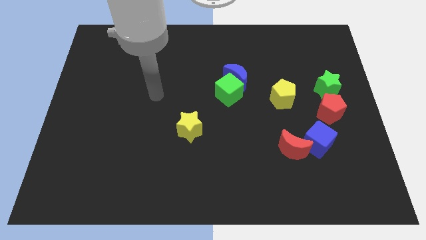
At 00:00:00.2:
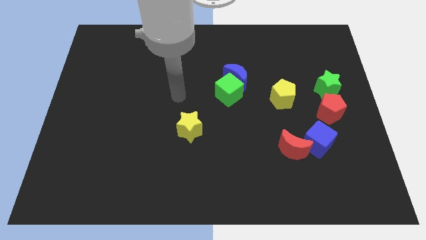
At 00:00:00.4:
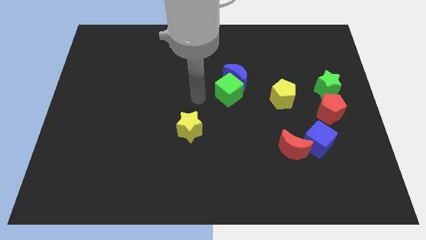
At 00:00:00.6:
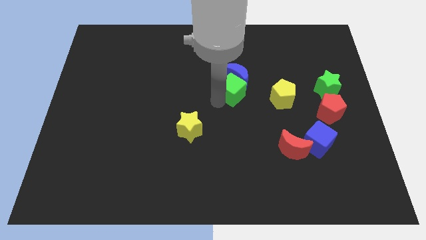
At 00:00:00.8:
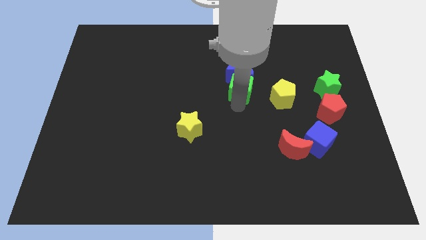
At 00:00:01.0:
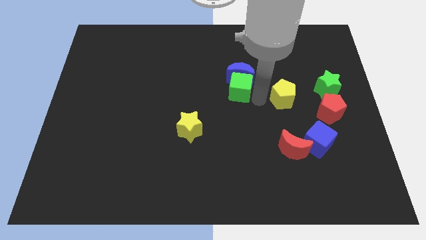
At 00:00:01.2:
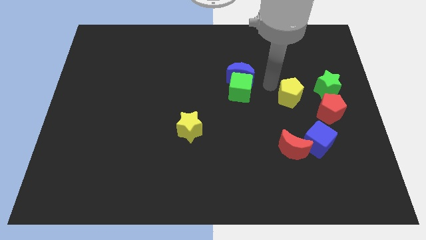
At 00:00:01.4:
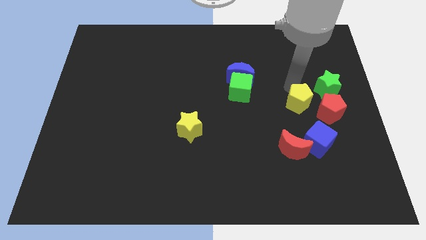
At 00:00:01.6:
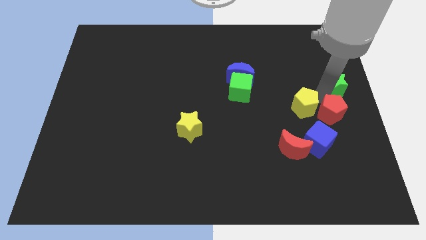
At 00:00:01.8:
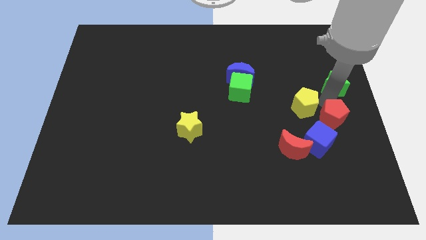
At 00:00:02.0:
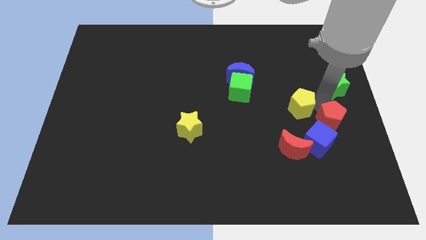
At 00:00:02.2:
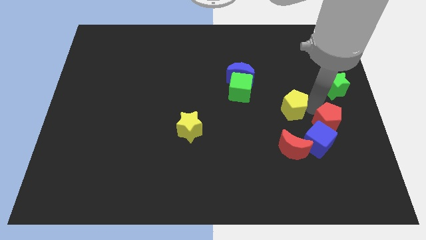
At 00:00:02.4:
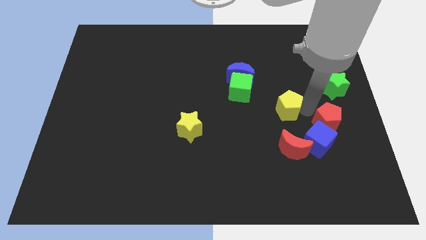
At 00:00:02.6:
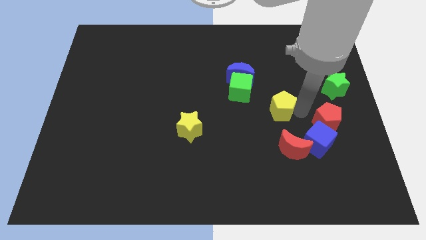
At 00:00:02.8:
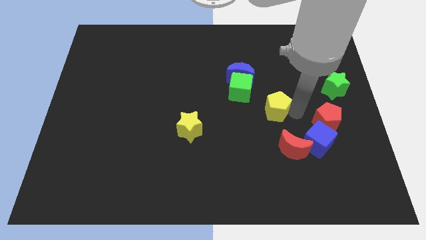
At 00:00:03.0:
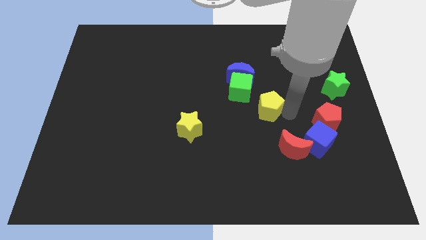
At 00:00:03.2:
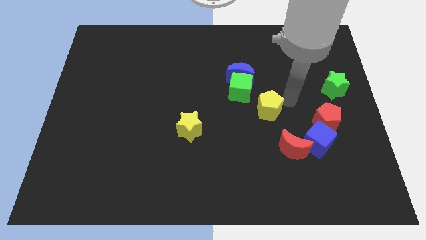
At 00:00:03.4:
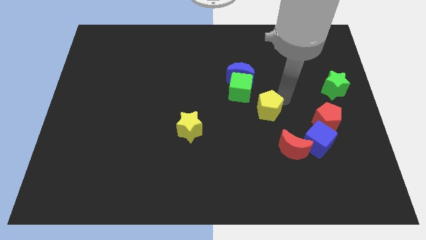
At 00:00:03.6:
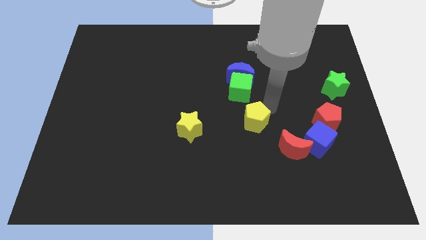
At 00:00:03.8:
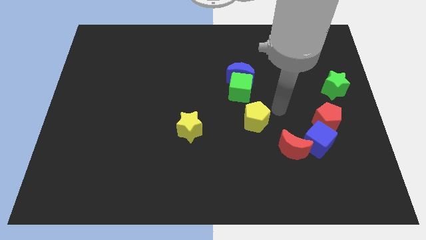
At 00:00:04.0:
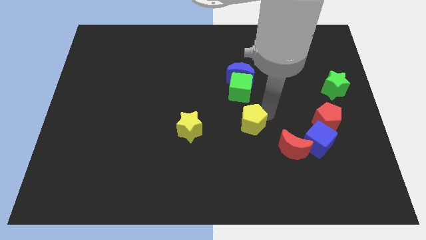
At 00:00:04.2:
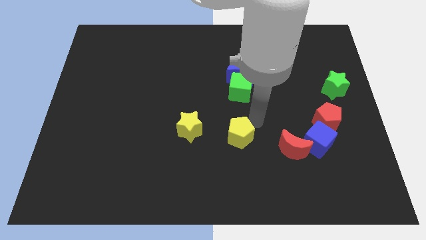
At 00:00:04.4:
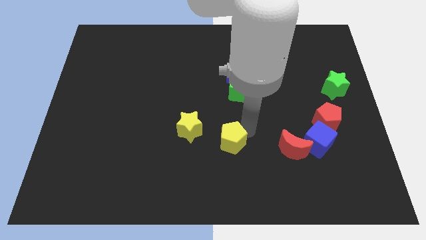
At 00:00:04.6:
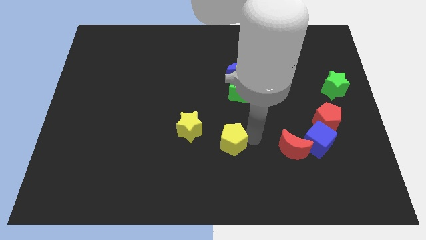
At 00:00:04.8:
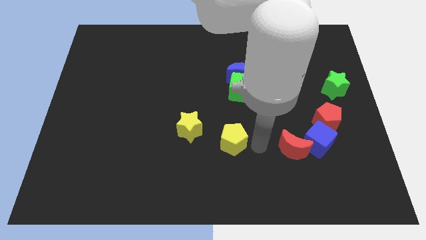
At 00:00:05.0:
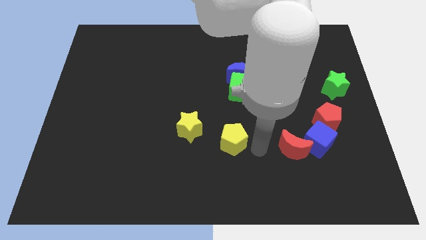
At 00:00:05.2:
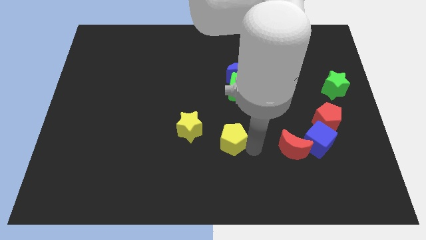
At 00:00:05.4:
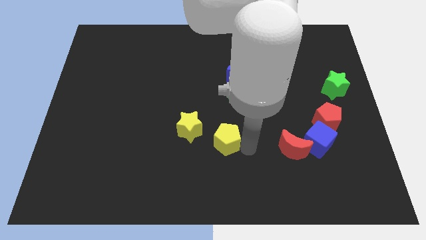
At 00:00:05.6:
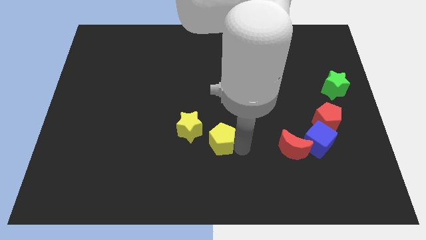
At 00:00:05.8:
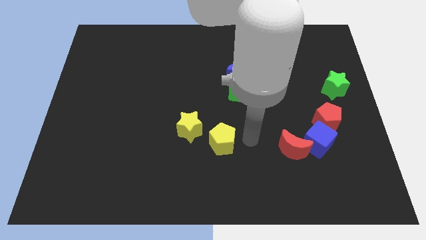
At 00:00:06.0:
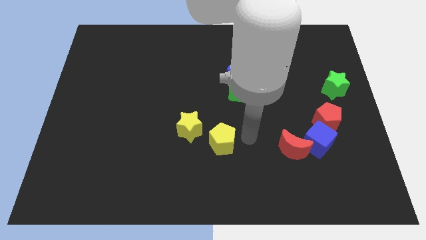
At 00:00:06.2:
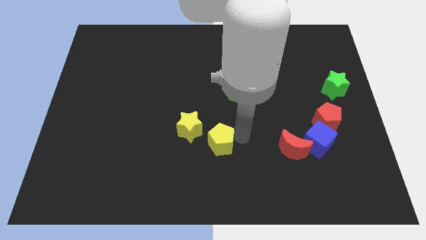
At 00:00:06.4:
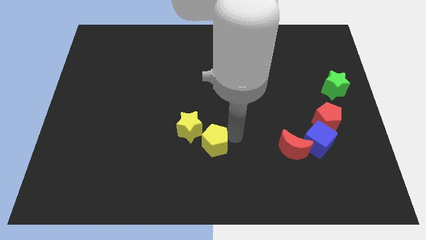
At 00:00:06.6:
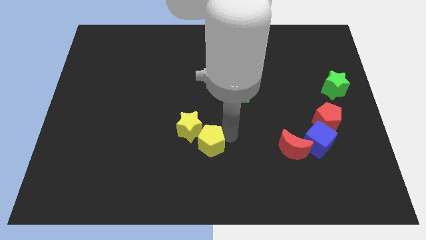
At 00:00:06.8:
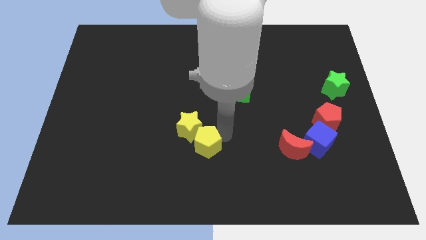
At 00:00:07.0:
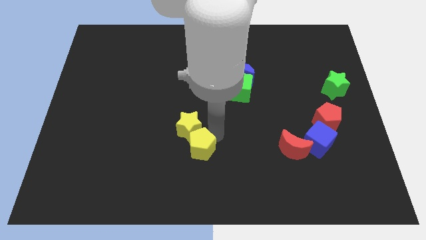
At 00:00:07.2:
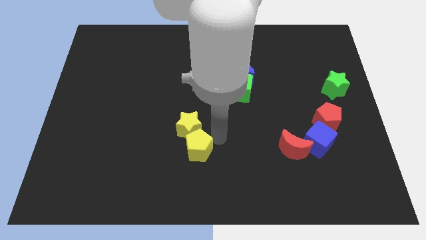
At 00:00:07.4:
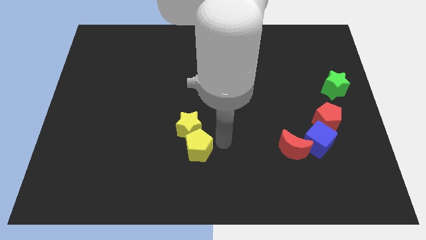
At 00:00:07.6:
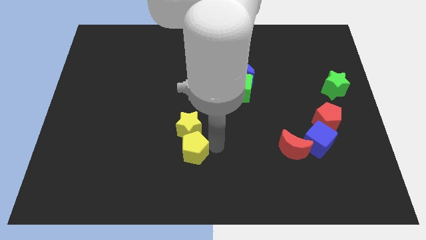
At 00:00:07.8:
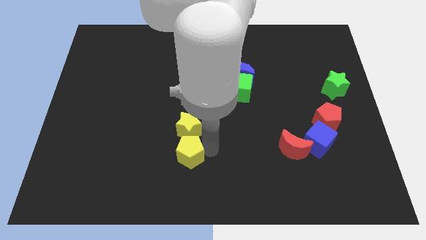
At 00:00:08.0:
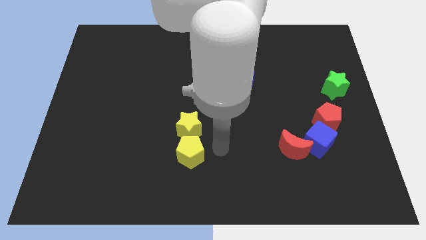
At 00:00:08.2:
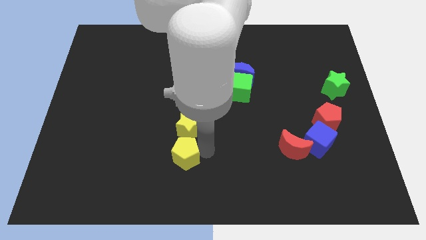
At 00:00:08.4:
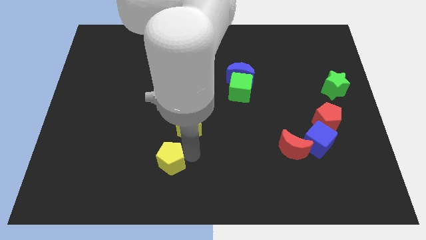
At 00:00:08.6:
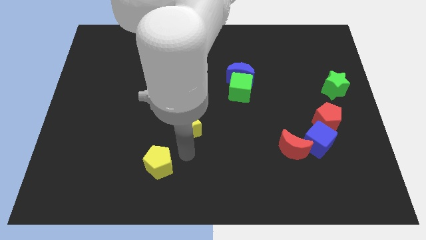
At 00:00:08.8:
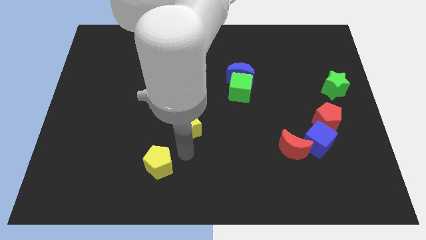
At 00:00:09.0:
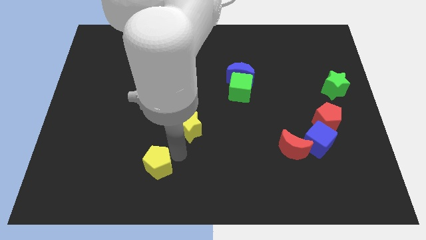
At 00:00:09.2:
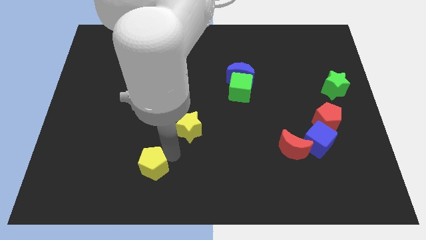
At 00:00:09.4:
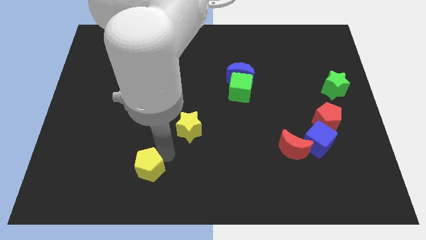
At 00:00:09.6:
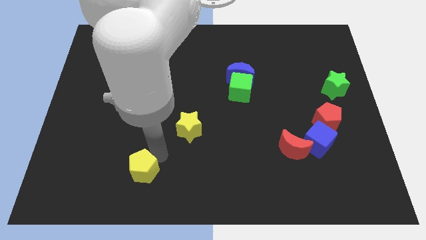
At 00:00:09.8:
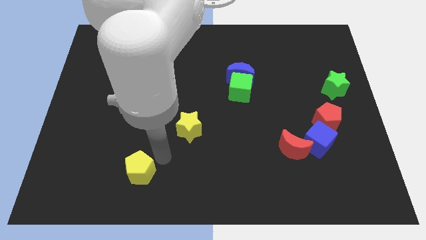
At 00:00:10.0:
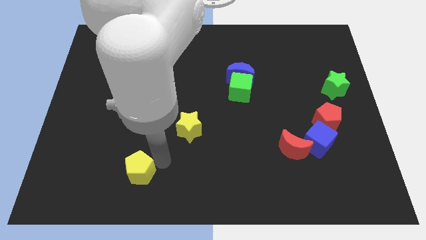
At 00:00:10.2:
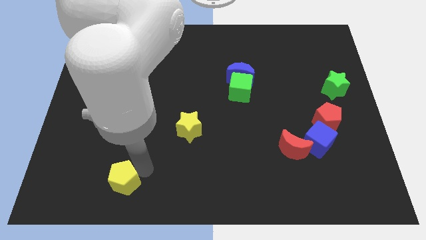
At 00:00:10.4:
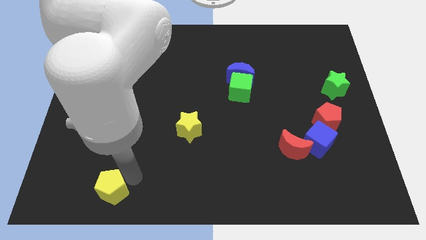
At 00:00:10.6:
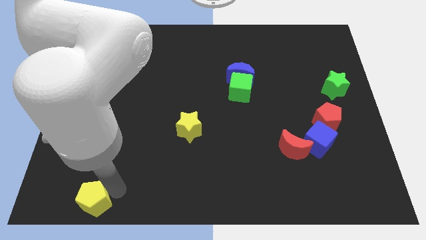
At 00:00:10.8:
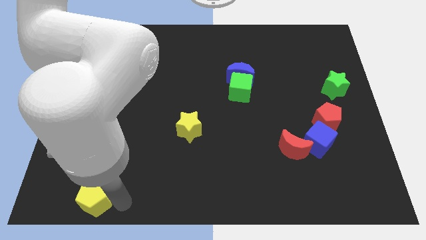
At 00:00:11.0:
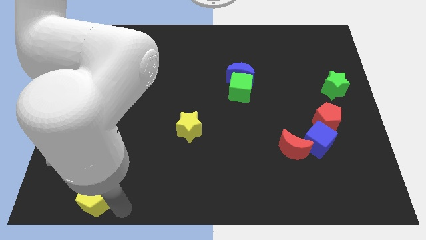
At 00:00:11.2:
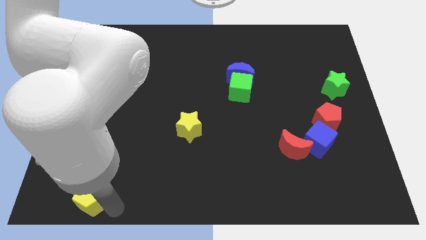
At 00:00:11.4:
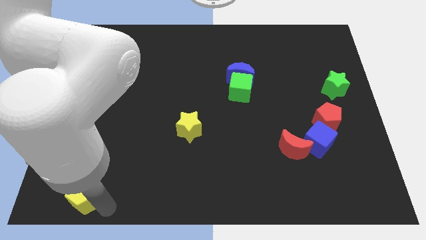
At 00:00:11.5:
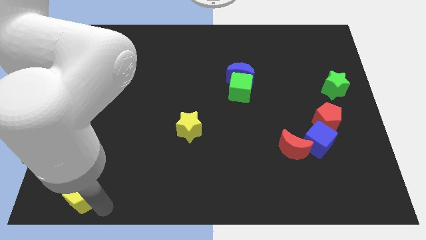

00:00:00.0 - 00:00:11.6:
slide the yellow pentagon to the lower left corner
